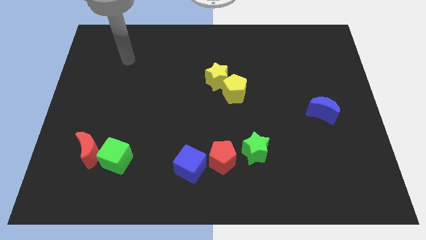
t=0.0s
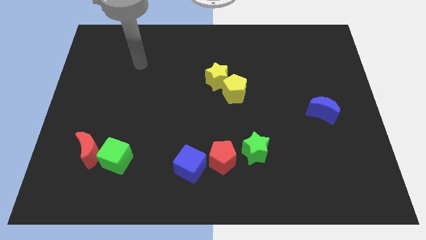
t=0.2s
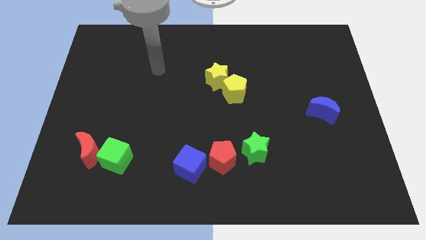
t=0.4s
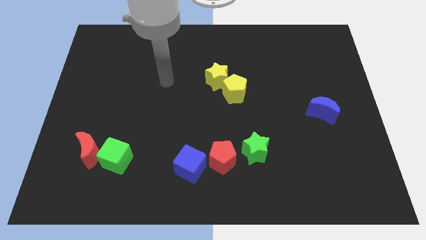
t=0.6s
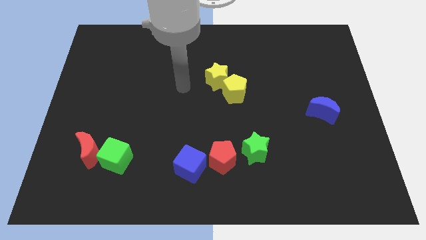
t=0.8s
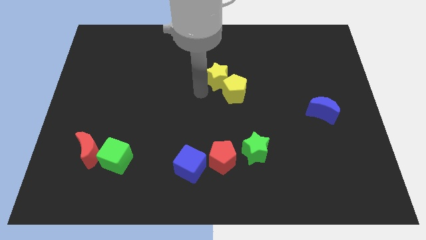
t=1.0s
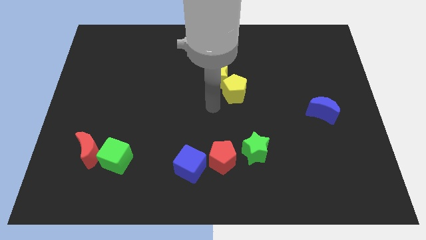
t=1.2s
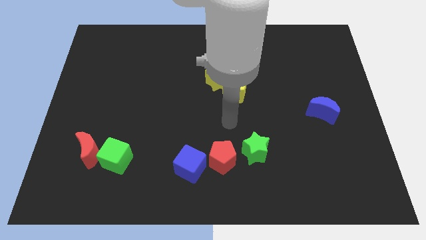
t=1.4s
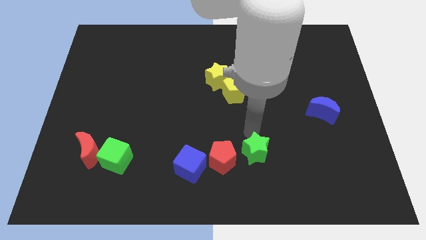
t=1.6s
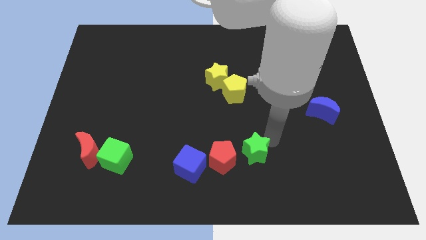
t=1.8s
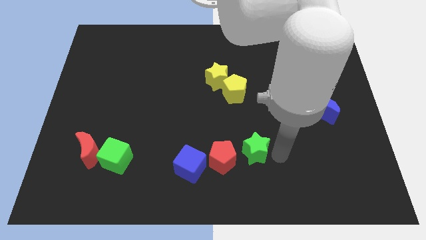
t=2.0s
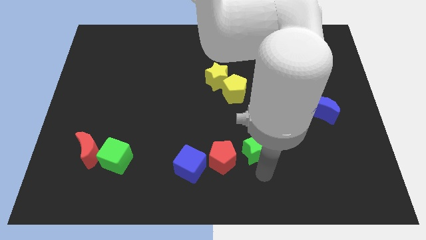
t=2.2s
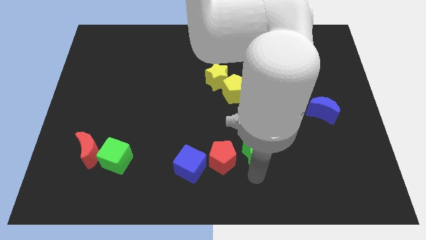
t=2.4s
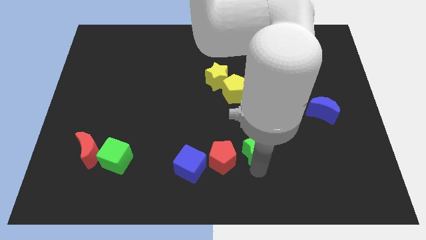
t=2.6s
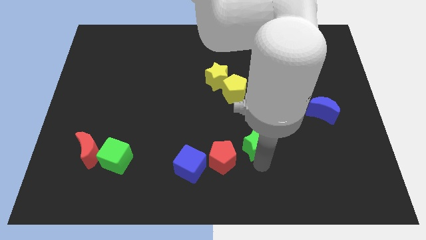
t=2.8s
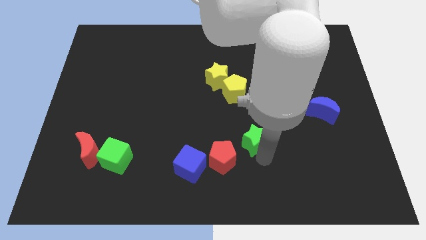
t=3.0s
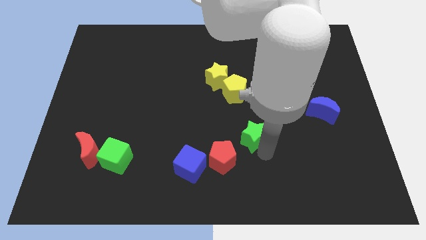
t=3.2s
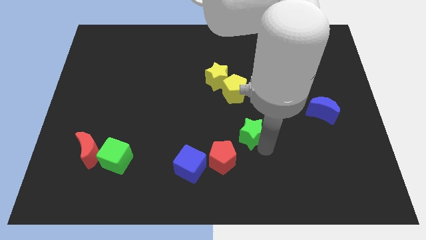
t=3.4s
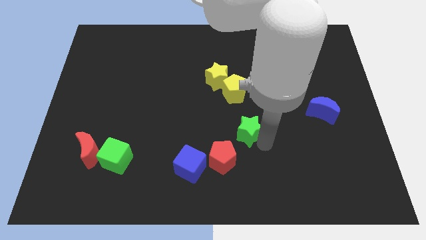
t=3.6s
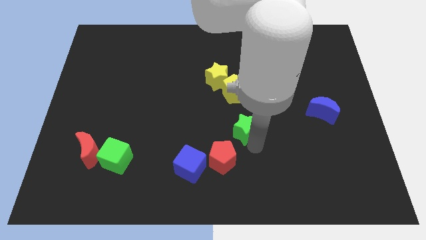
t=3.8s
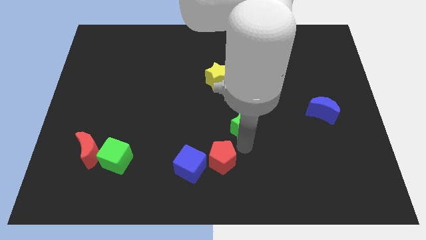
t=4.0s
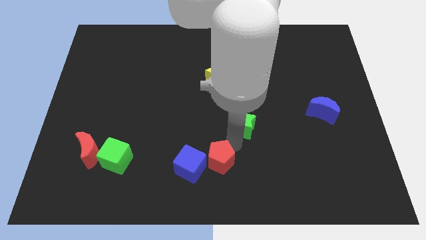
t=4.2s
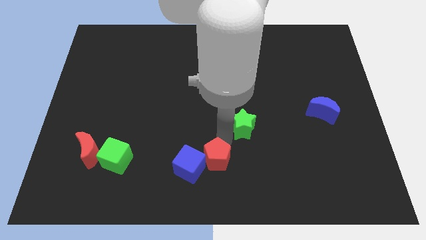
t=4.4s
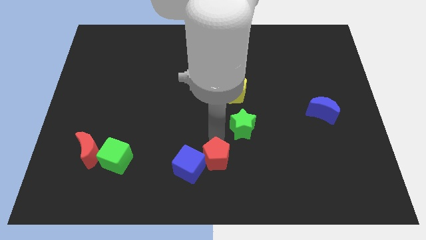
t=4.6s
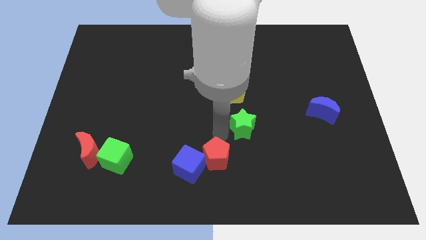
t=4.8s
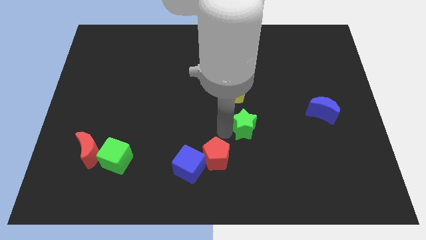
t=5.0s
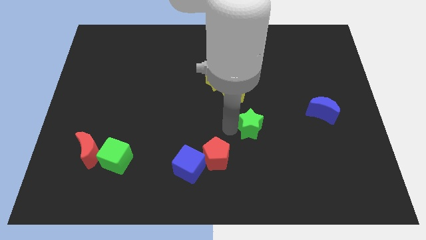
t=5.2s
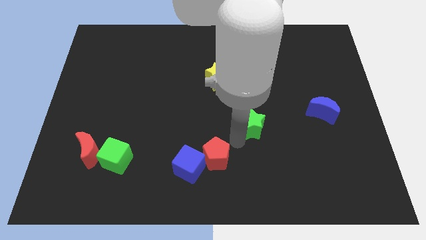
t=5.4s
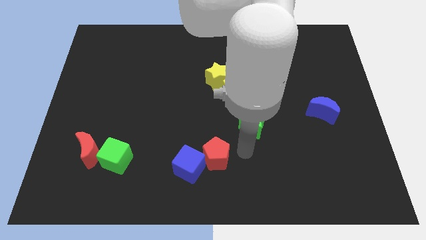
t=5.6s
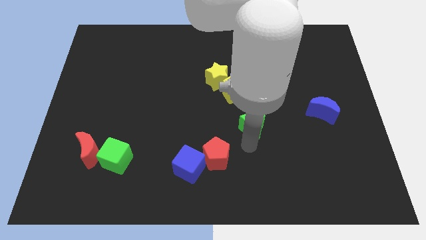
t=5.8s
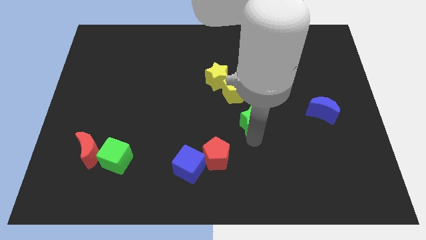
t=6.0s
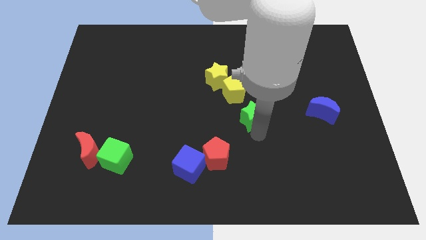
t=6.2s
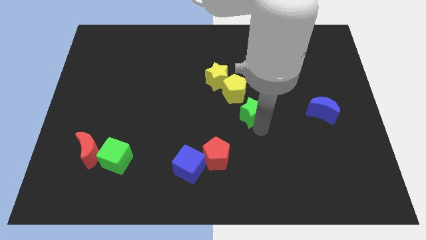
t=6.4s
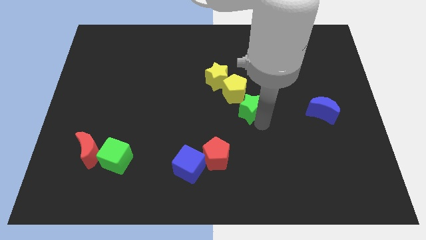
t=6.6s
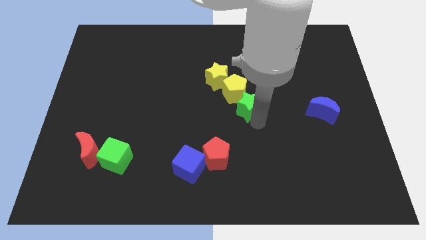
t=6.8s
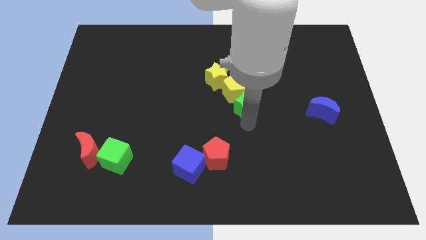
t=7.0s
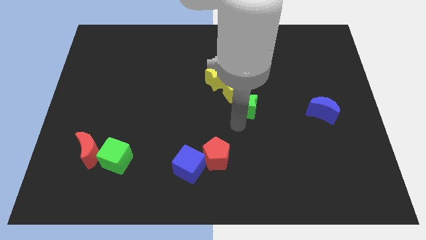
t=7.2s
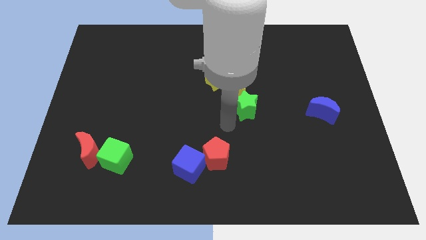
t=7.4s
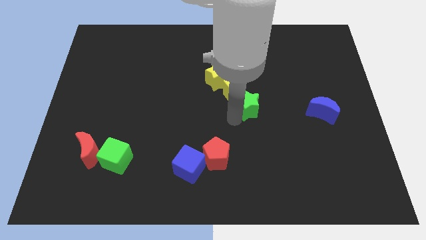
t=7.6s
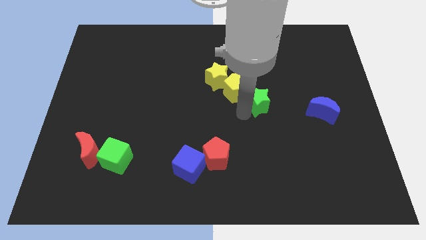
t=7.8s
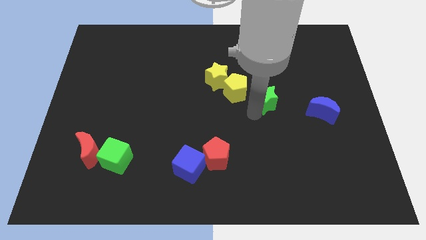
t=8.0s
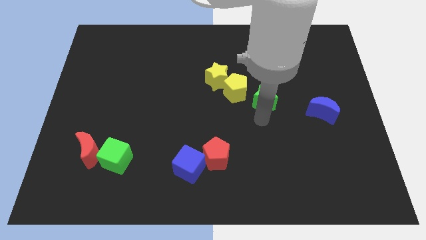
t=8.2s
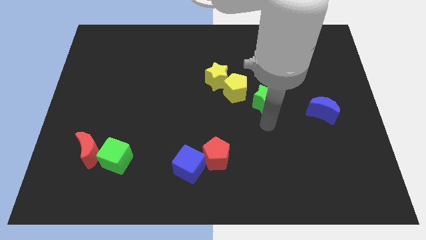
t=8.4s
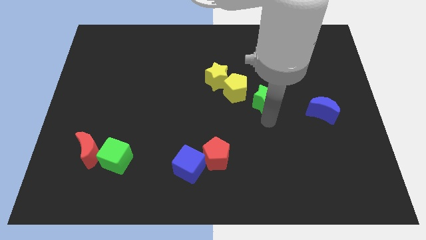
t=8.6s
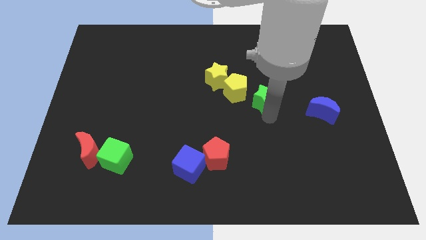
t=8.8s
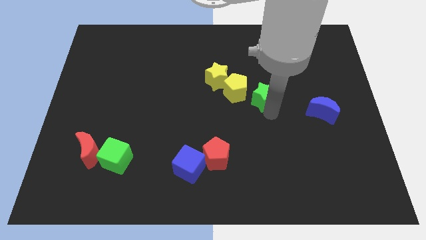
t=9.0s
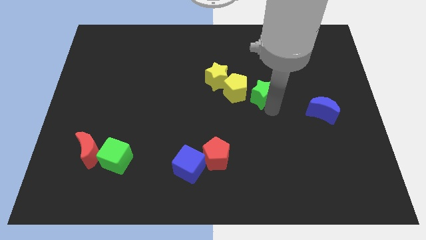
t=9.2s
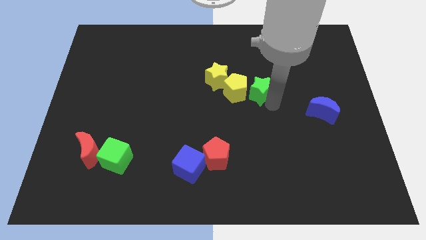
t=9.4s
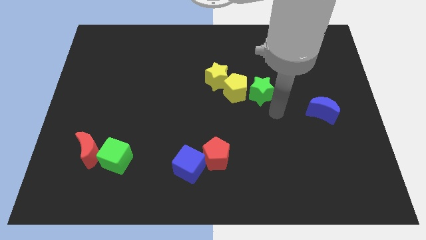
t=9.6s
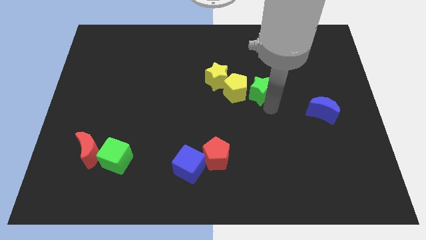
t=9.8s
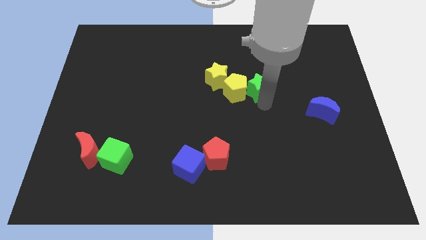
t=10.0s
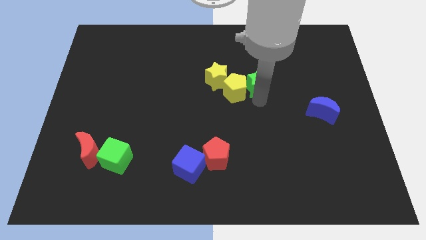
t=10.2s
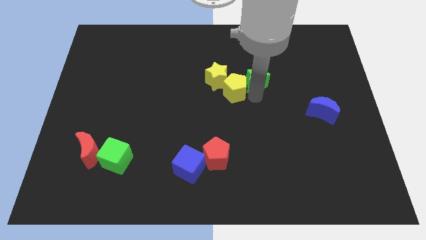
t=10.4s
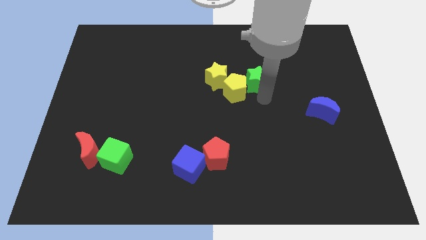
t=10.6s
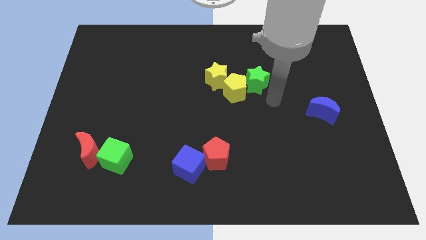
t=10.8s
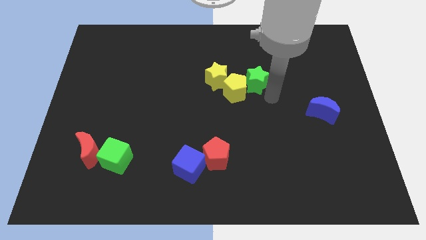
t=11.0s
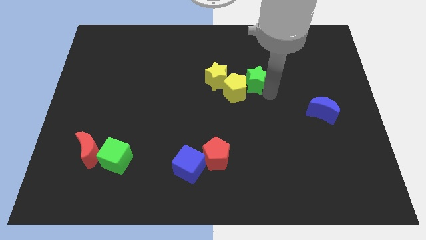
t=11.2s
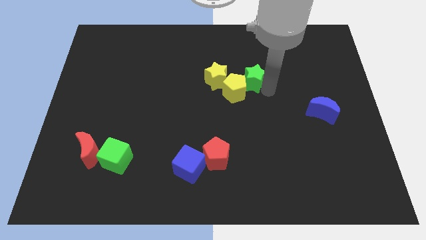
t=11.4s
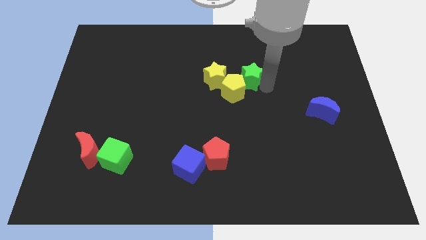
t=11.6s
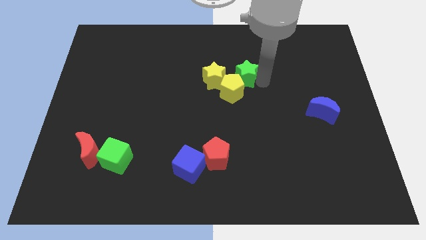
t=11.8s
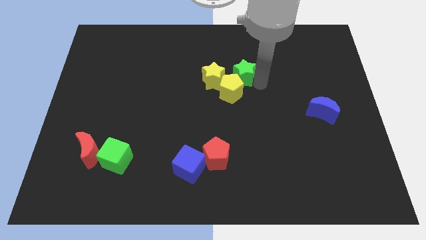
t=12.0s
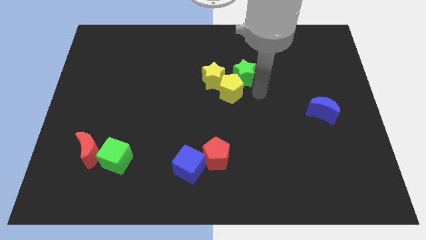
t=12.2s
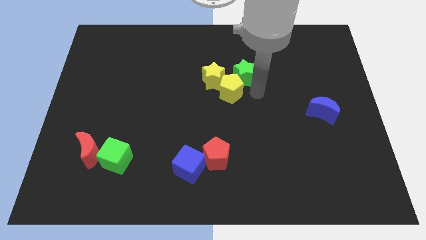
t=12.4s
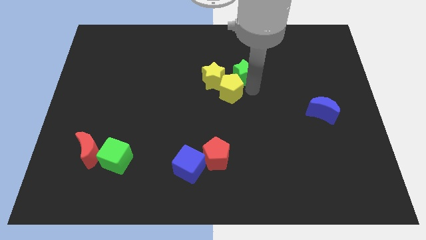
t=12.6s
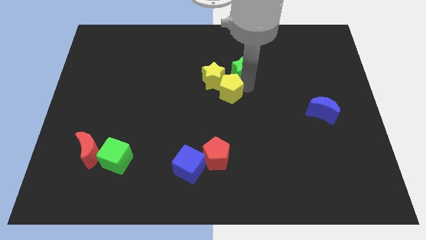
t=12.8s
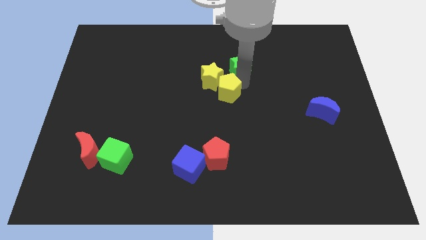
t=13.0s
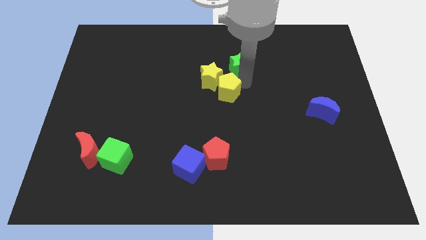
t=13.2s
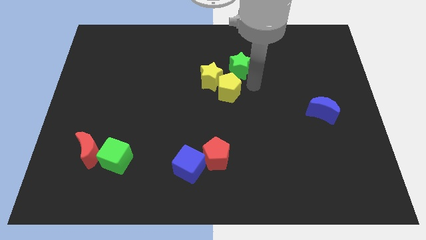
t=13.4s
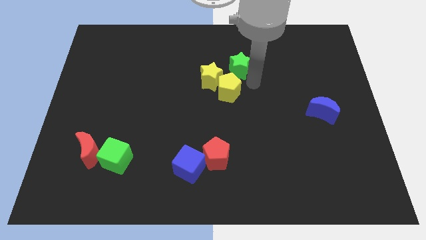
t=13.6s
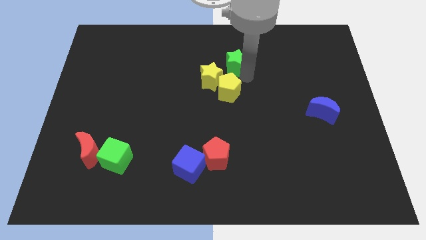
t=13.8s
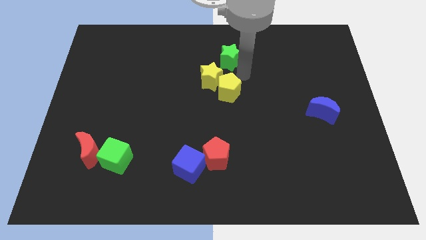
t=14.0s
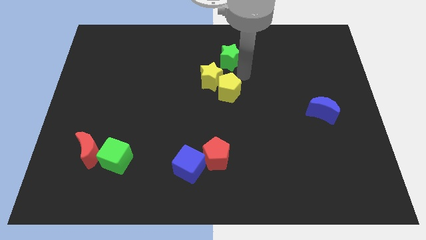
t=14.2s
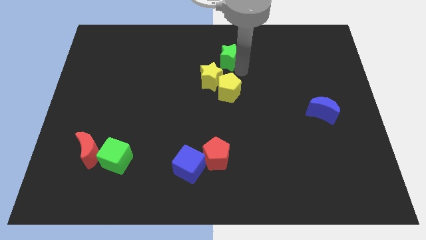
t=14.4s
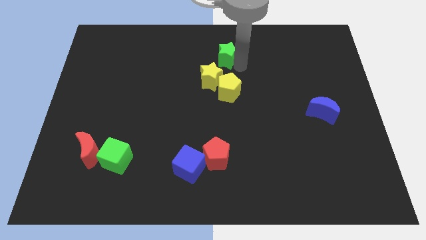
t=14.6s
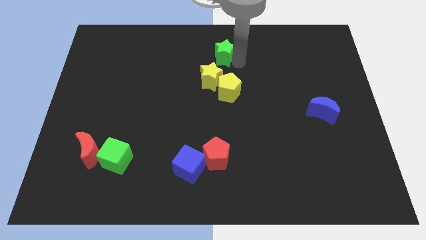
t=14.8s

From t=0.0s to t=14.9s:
push the green star to the top side
